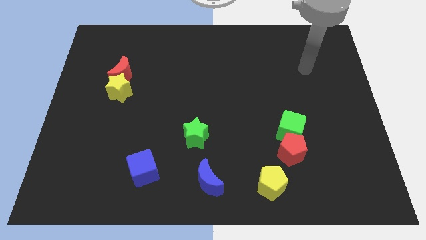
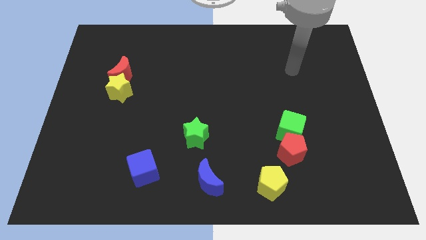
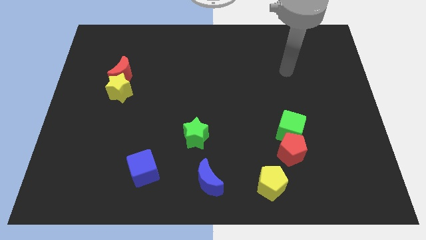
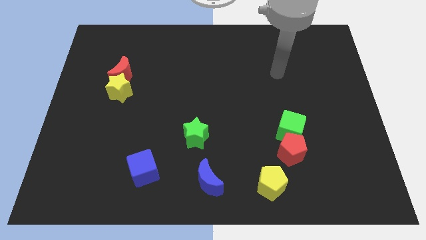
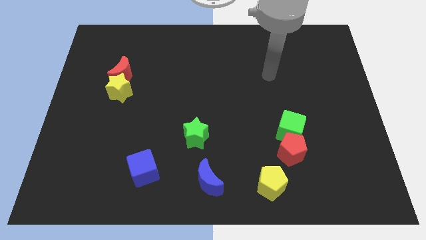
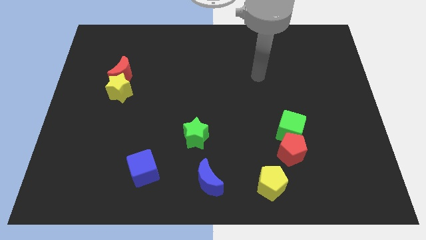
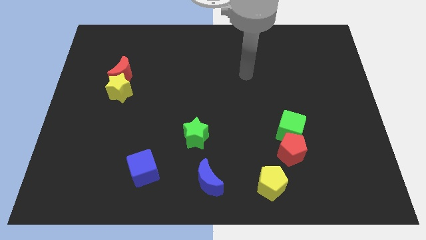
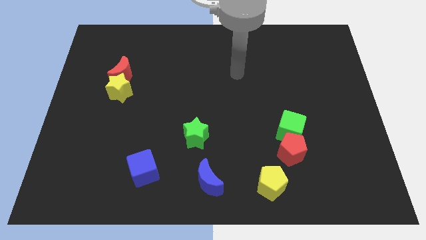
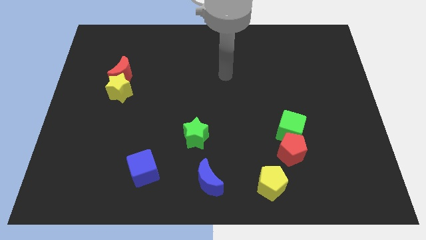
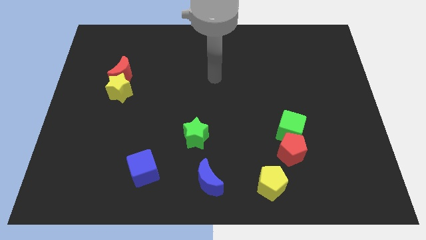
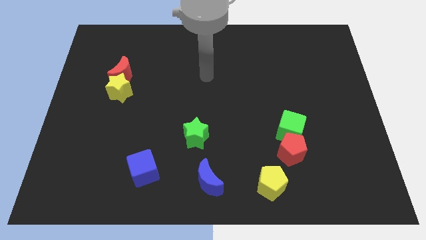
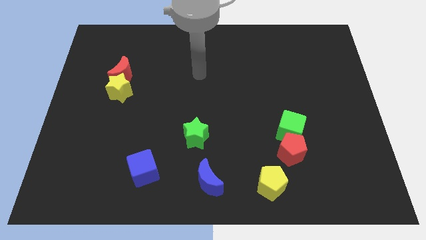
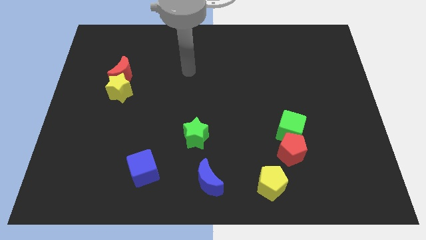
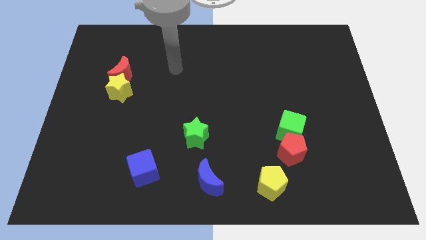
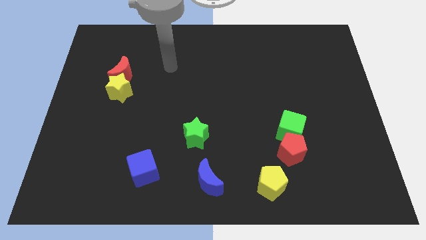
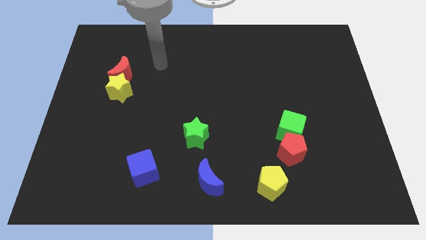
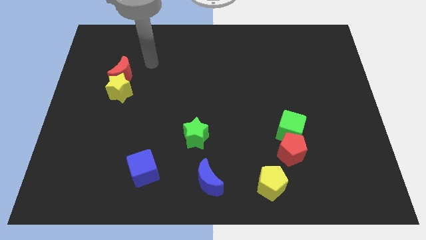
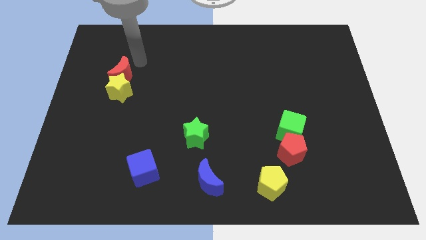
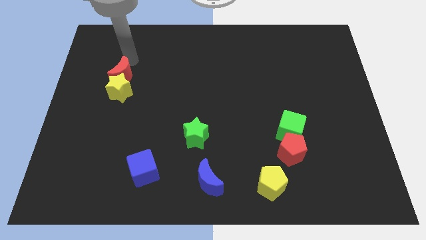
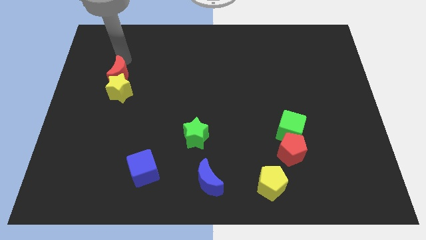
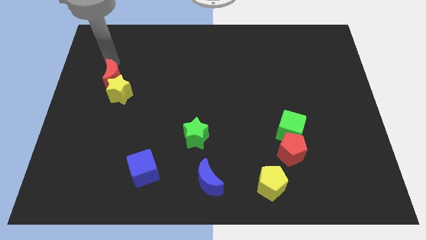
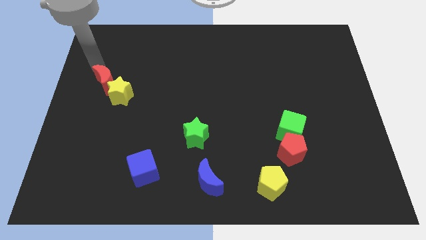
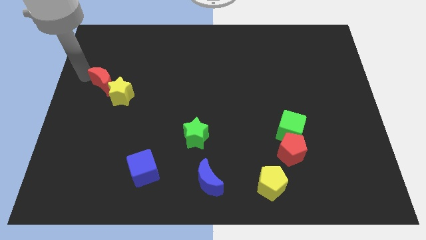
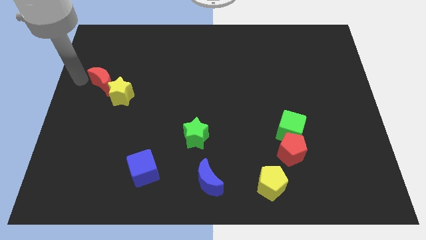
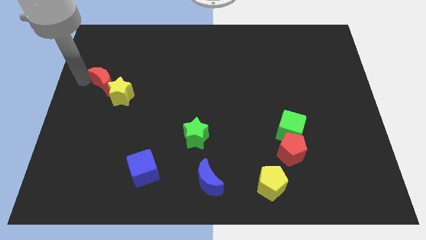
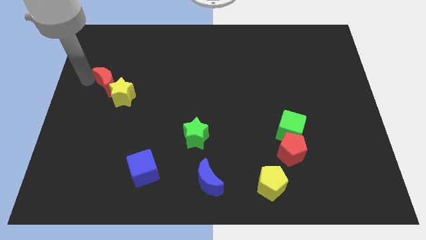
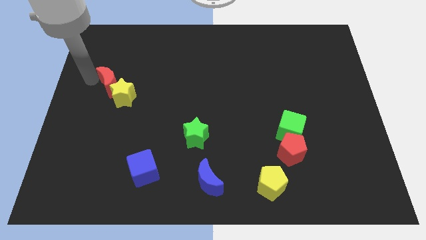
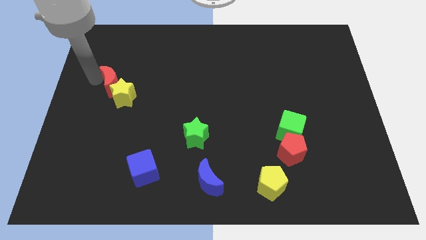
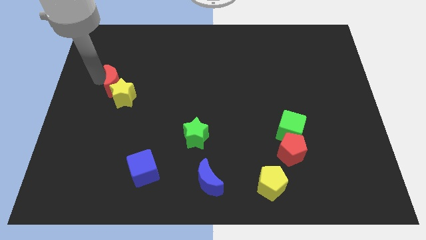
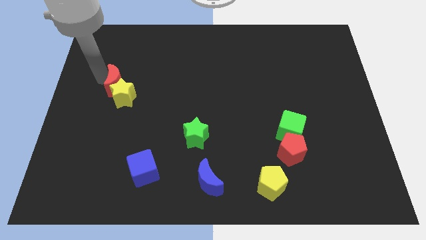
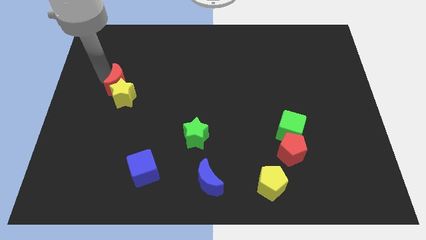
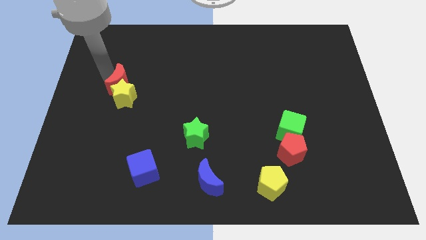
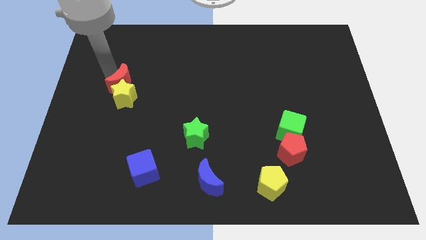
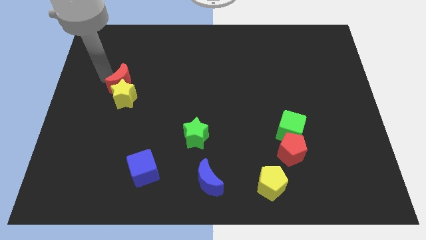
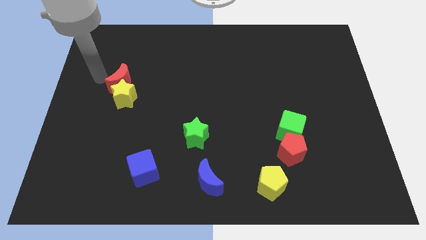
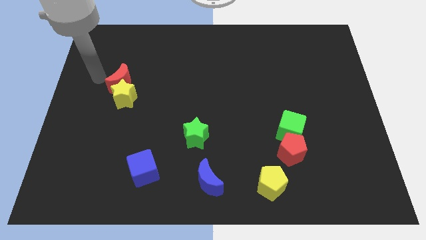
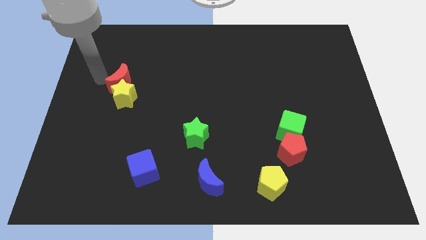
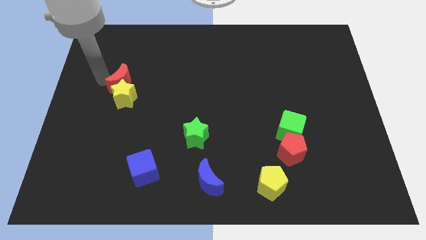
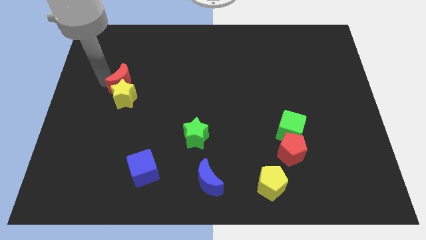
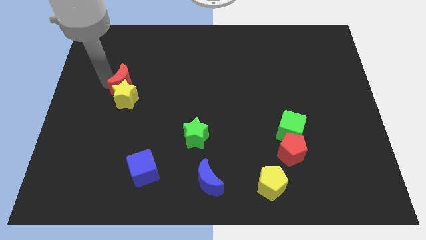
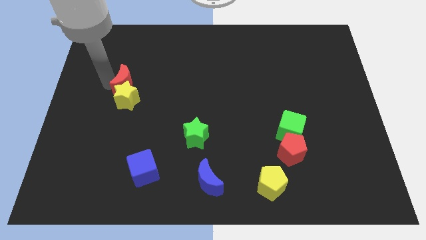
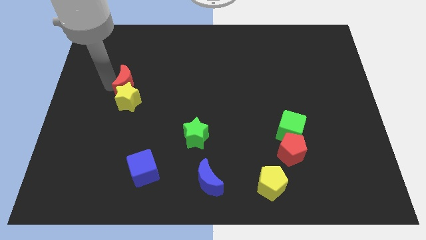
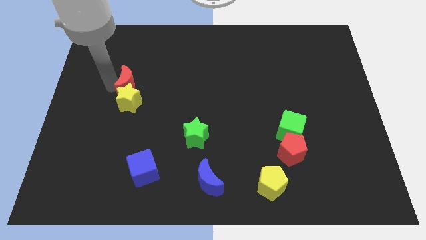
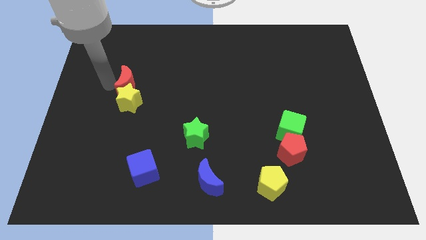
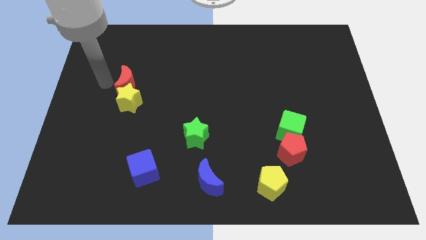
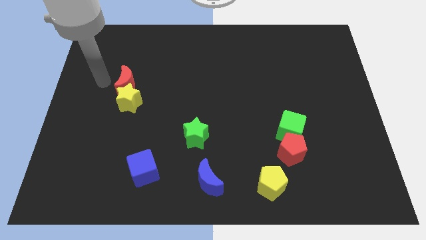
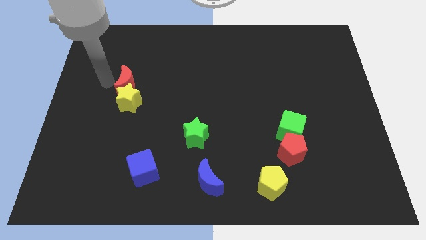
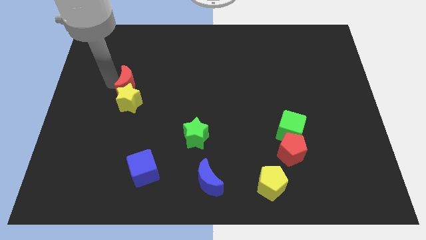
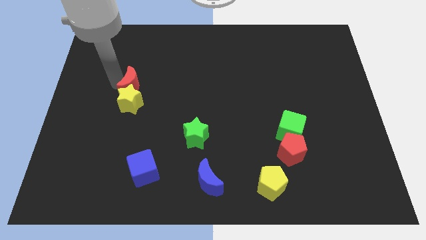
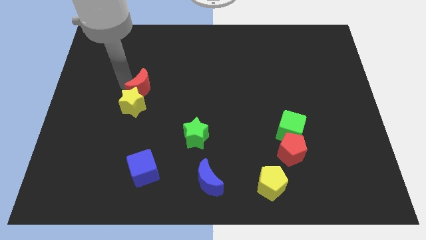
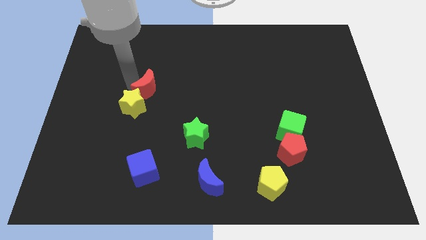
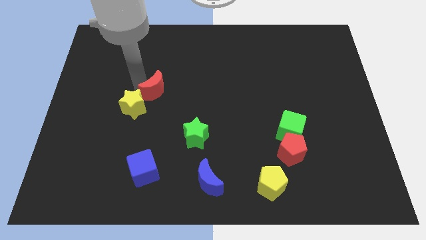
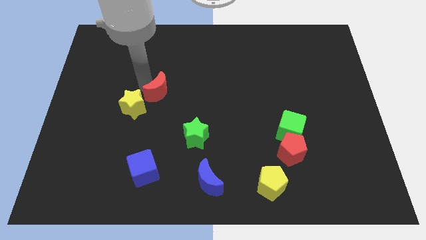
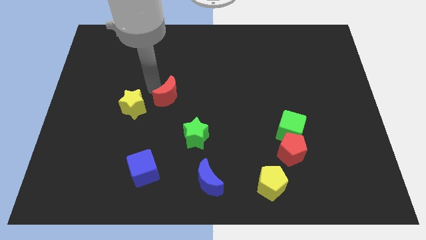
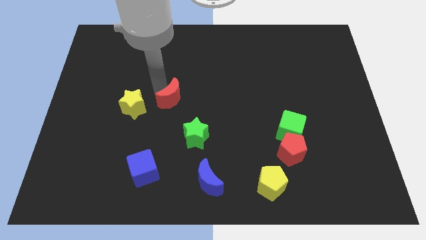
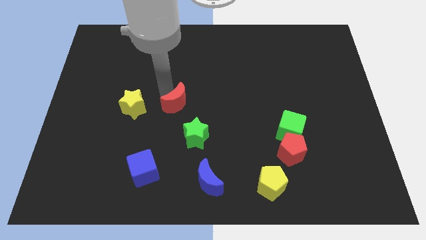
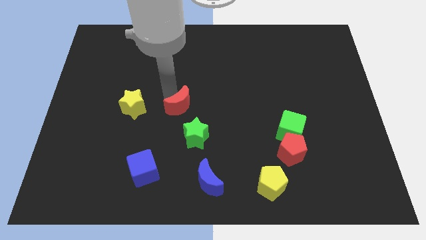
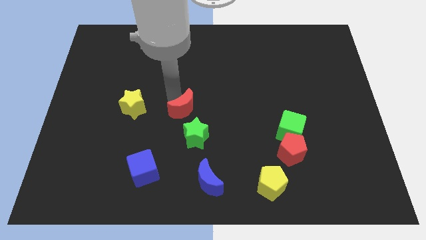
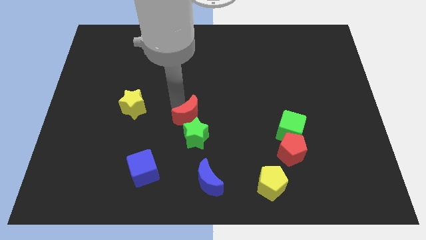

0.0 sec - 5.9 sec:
slide the red moon downwards and right

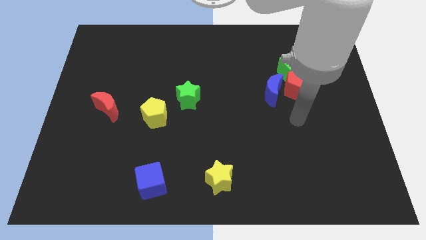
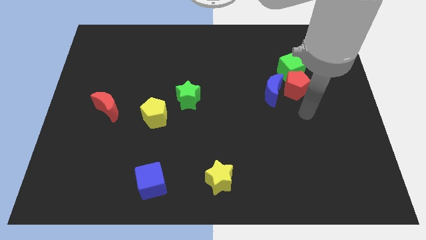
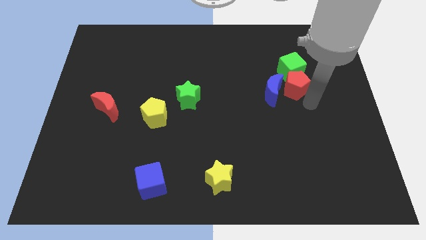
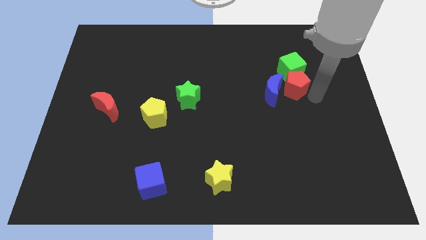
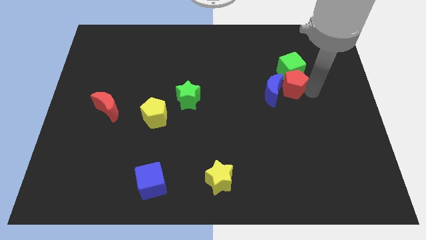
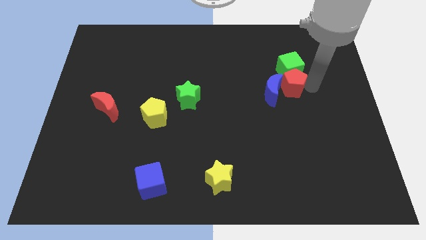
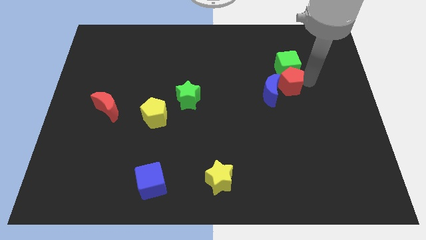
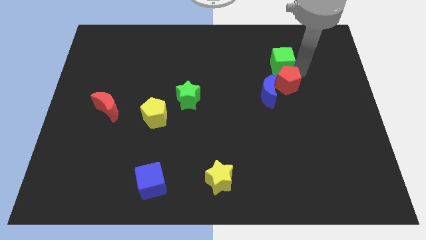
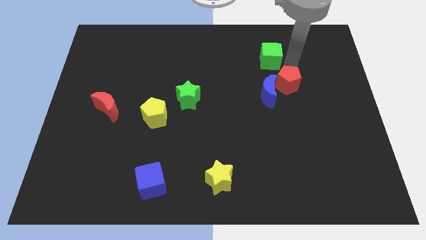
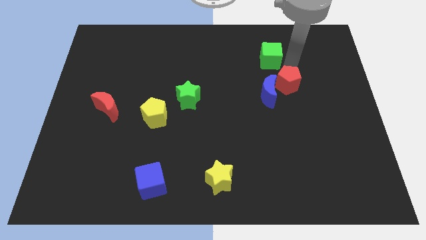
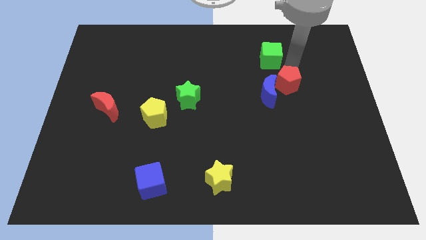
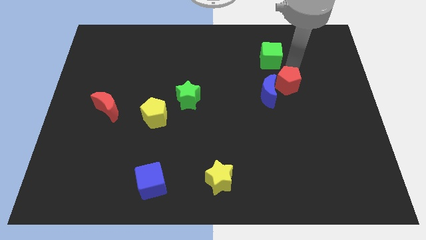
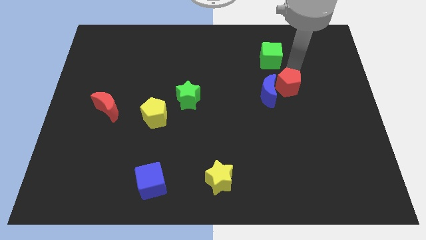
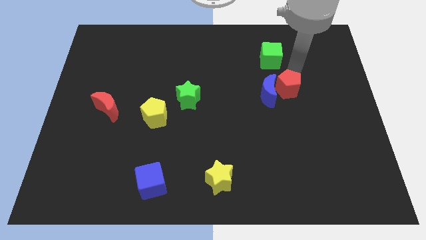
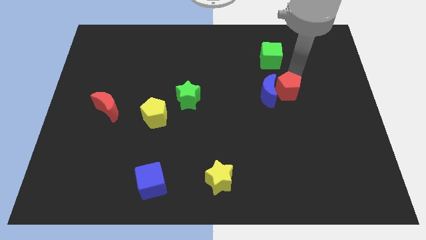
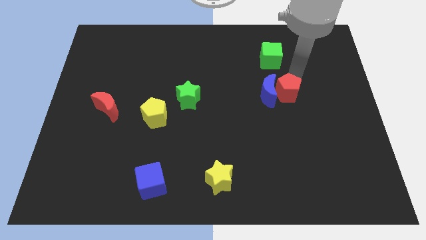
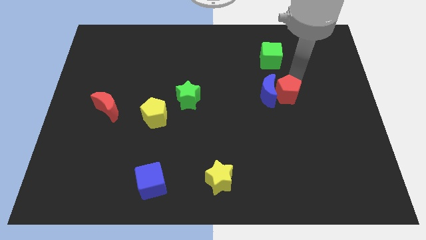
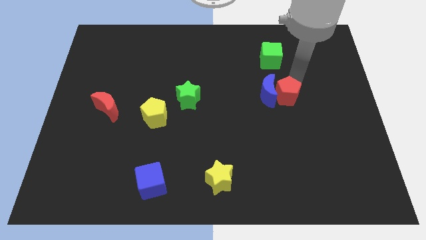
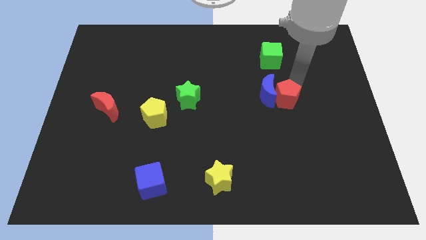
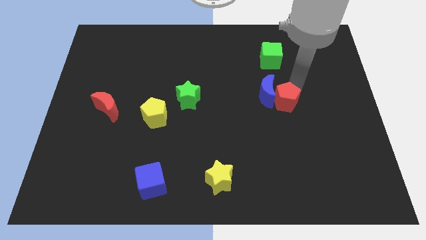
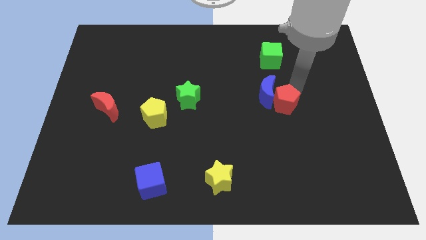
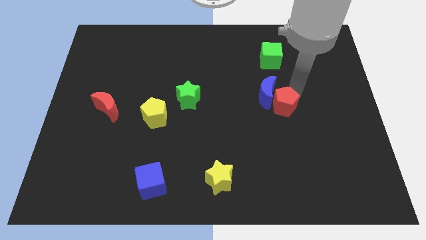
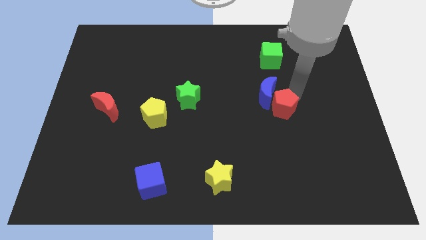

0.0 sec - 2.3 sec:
slide the red pentagon downwards and then left a little bit
